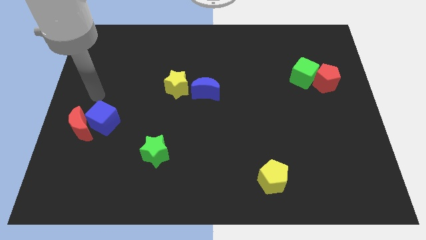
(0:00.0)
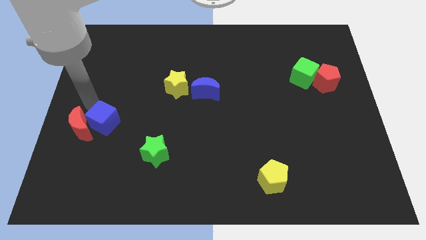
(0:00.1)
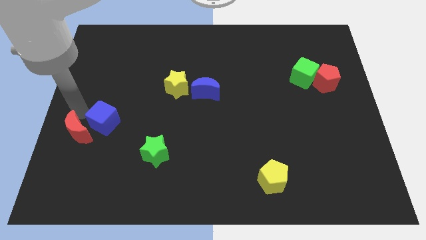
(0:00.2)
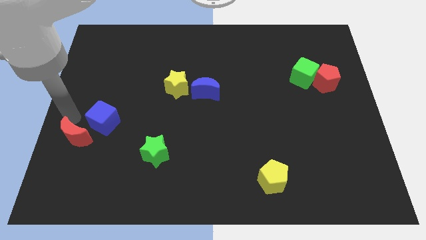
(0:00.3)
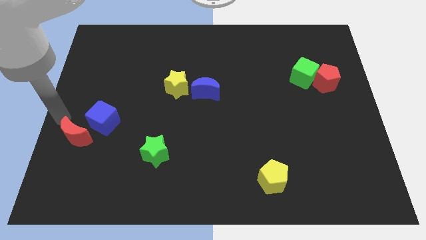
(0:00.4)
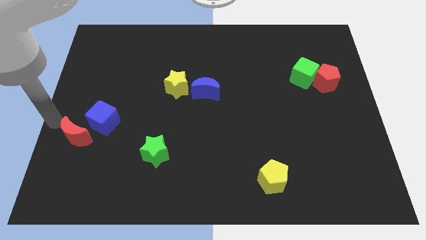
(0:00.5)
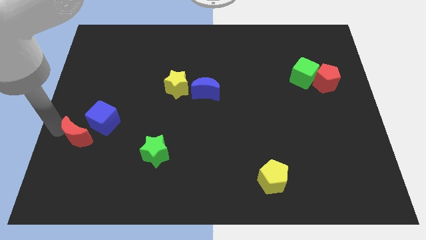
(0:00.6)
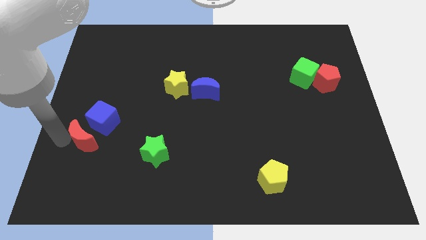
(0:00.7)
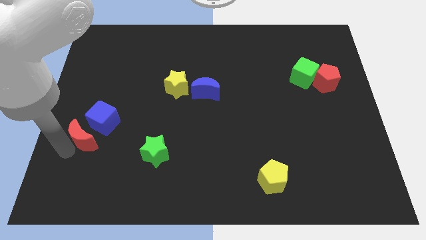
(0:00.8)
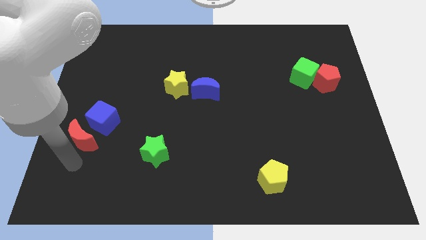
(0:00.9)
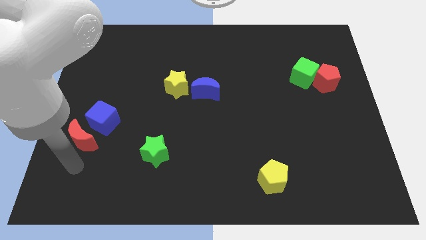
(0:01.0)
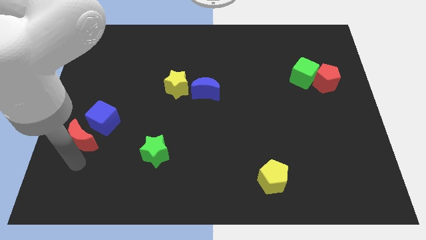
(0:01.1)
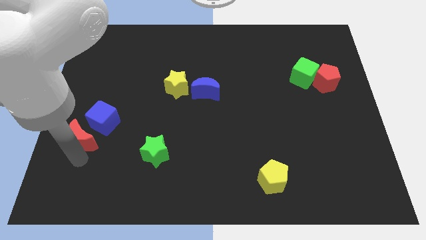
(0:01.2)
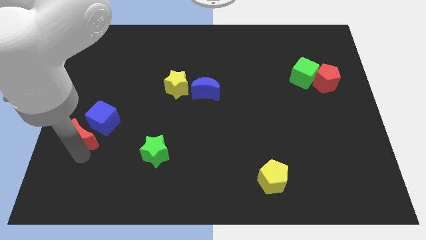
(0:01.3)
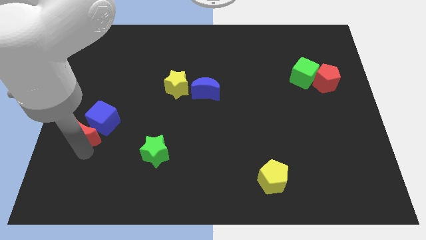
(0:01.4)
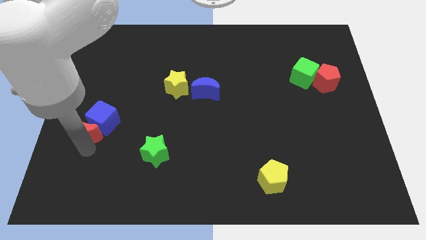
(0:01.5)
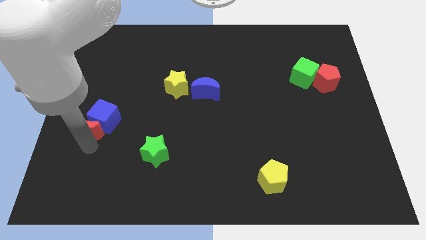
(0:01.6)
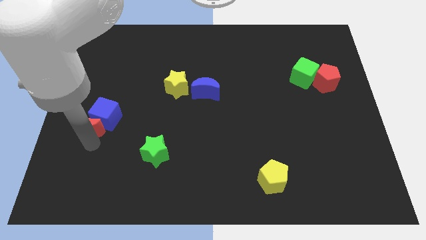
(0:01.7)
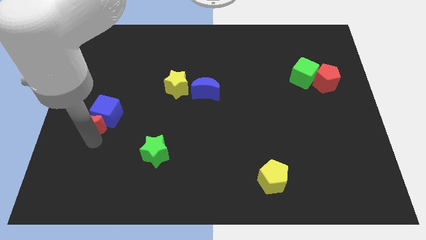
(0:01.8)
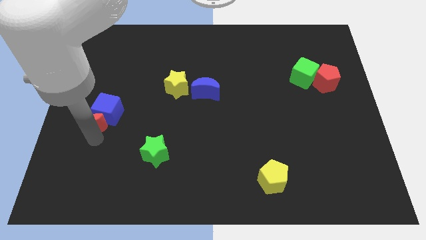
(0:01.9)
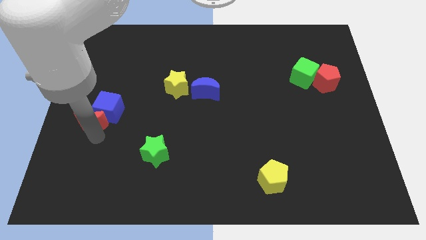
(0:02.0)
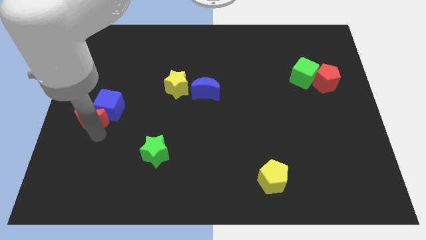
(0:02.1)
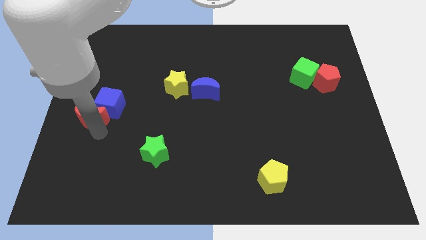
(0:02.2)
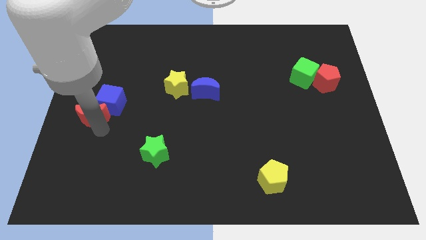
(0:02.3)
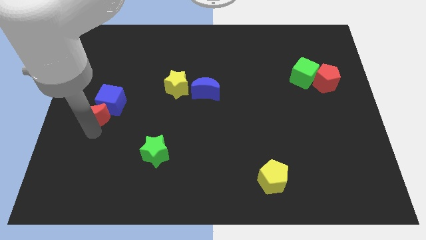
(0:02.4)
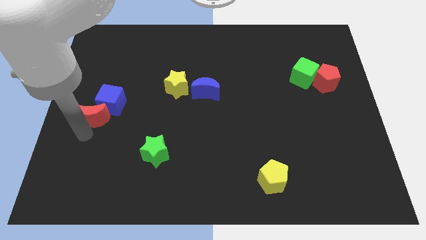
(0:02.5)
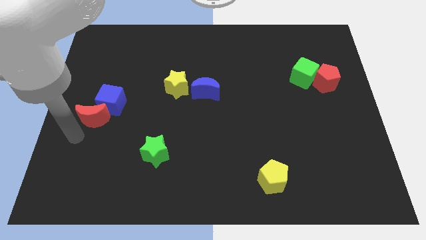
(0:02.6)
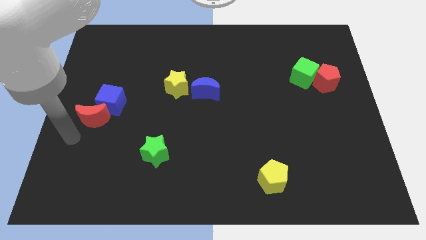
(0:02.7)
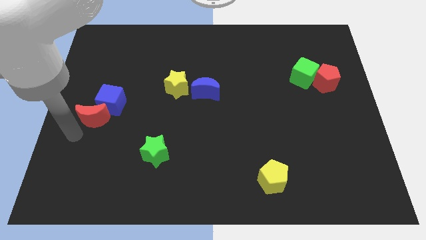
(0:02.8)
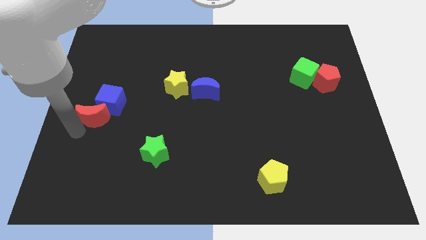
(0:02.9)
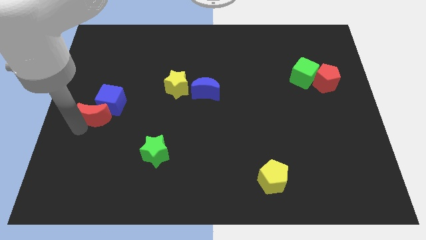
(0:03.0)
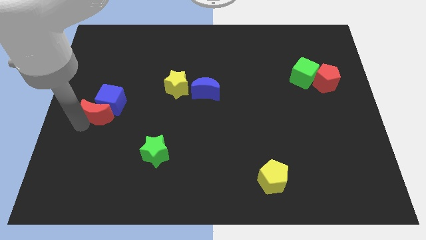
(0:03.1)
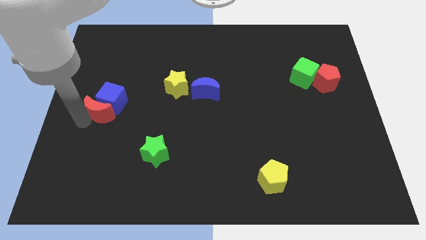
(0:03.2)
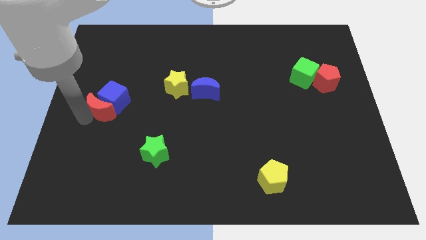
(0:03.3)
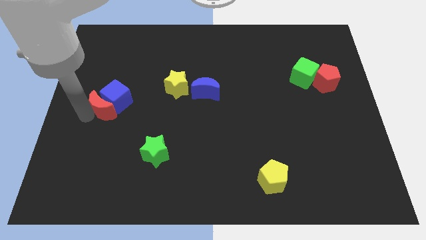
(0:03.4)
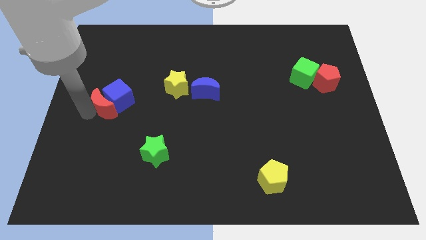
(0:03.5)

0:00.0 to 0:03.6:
slide the red moon a little bit up and then to the right

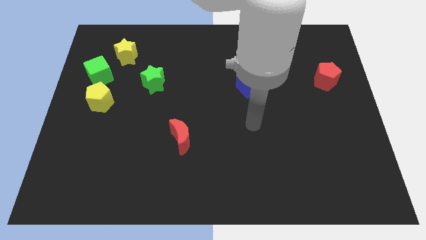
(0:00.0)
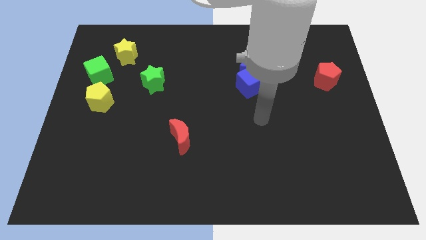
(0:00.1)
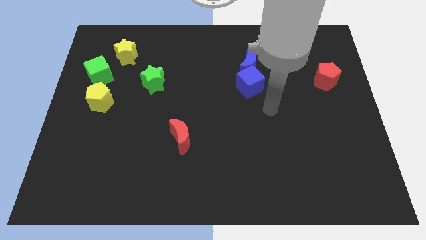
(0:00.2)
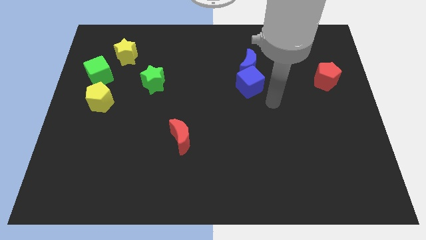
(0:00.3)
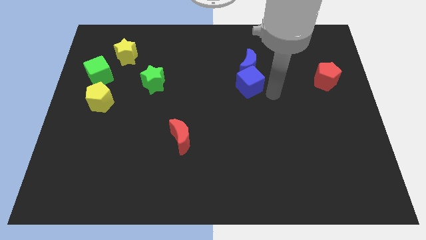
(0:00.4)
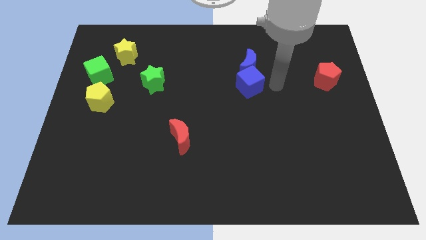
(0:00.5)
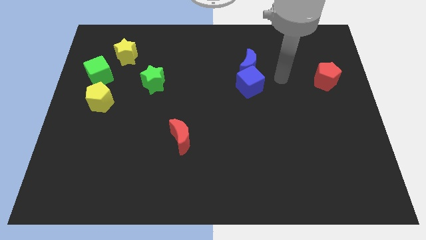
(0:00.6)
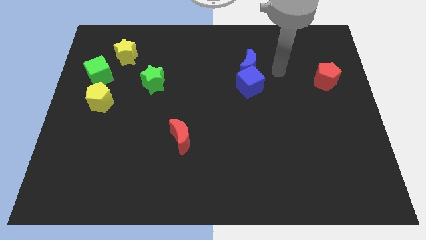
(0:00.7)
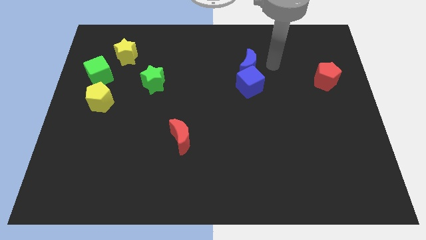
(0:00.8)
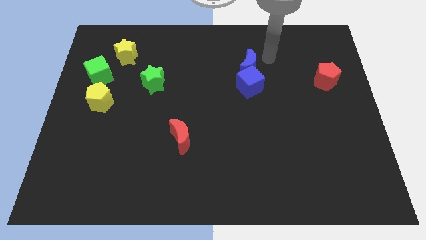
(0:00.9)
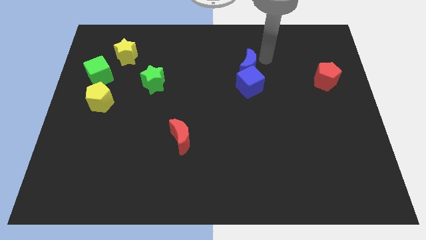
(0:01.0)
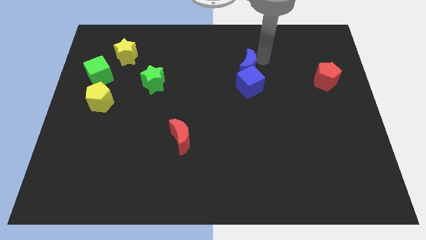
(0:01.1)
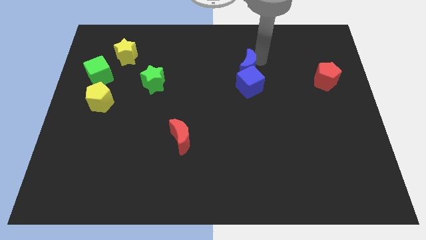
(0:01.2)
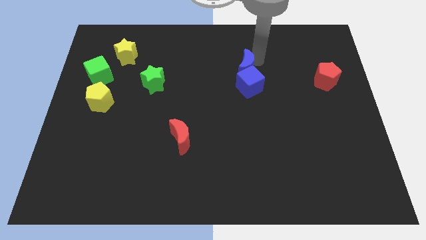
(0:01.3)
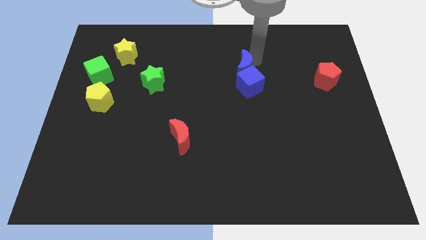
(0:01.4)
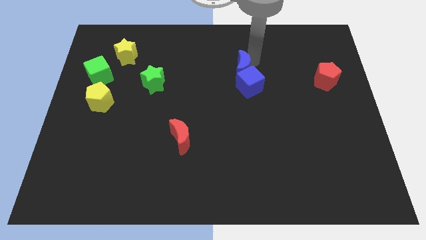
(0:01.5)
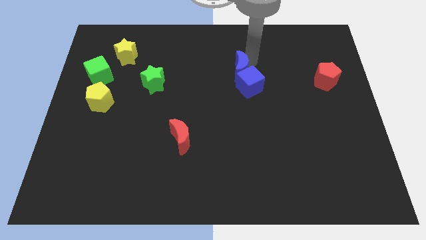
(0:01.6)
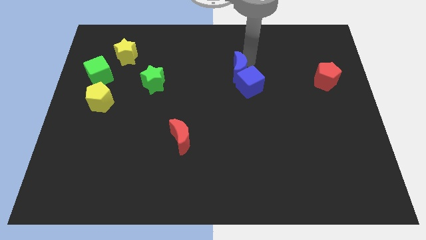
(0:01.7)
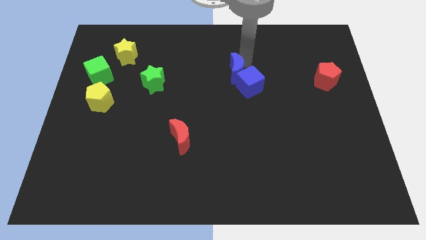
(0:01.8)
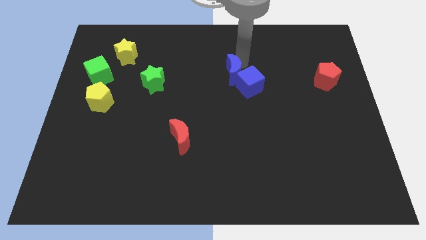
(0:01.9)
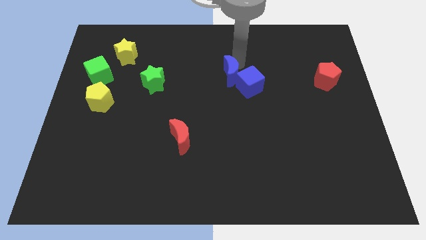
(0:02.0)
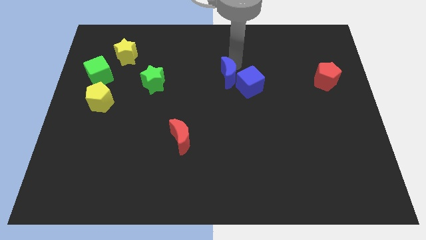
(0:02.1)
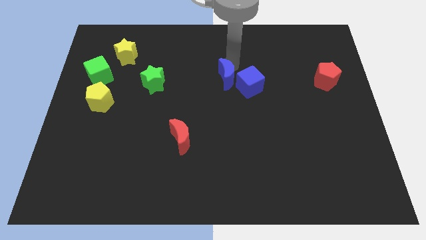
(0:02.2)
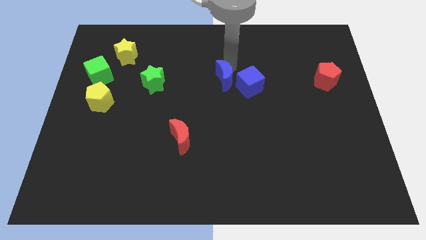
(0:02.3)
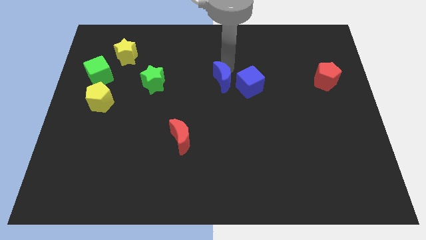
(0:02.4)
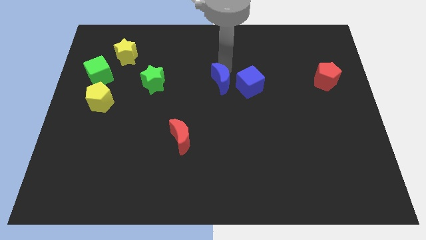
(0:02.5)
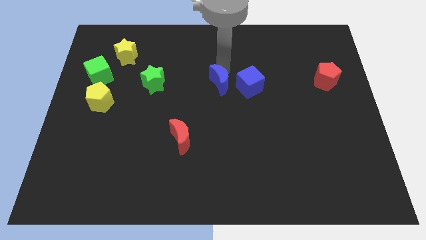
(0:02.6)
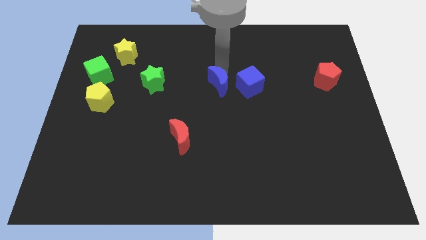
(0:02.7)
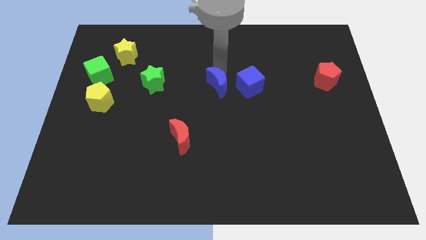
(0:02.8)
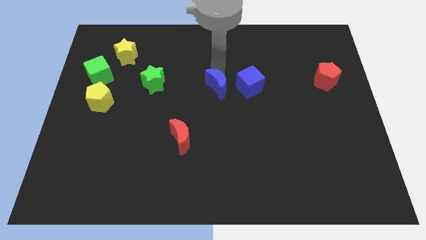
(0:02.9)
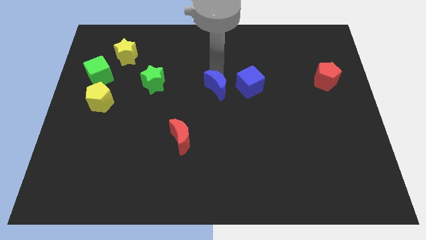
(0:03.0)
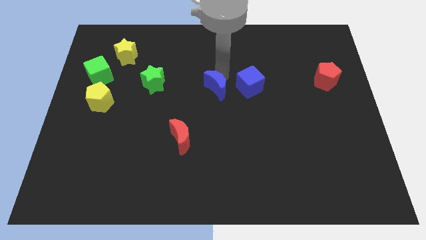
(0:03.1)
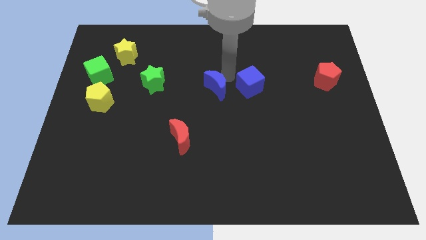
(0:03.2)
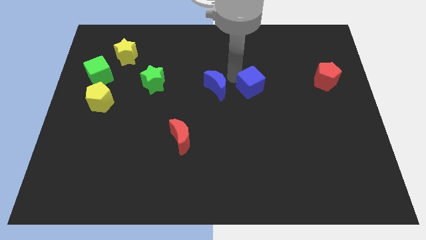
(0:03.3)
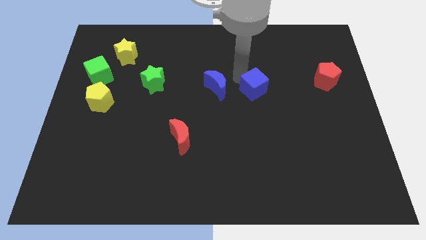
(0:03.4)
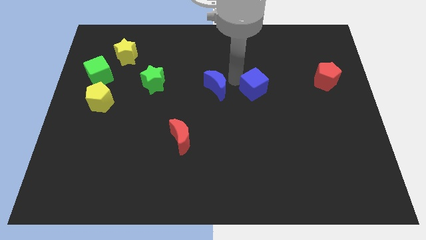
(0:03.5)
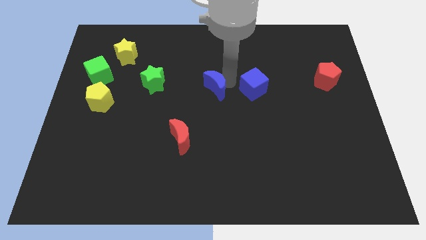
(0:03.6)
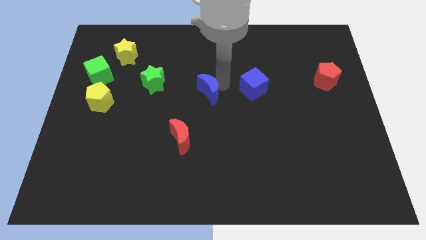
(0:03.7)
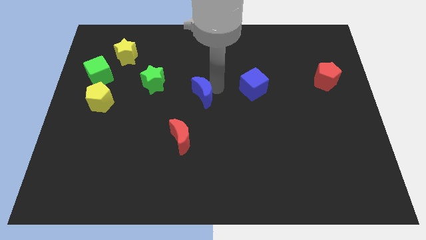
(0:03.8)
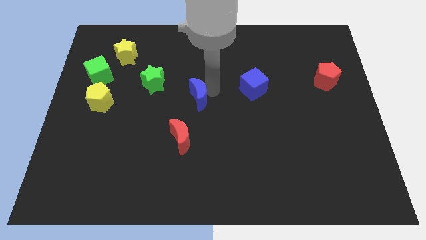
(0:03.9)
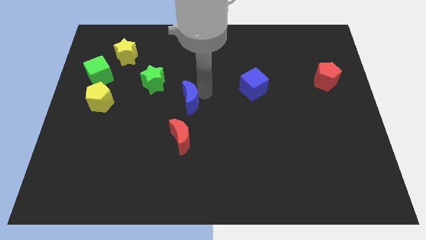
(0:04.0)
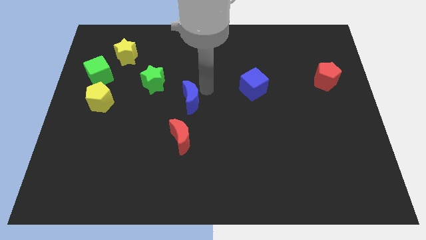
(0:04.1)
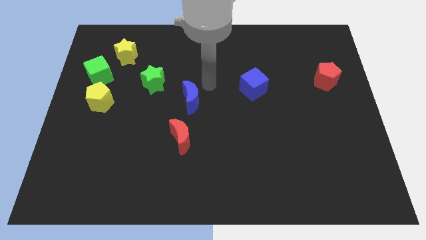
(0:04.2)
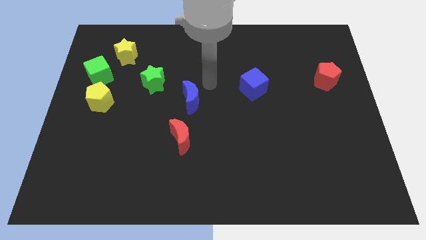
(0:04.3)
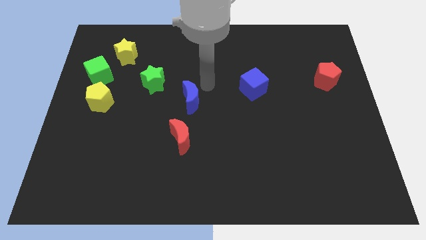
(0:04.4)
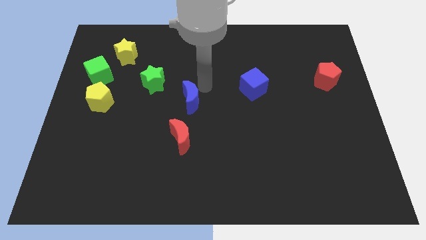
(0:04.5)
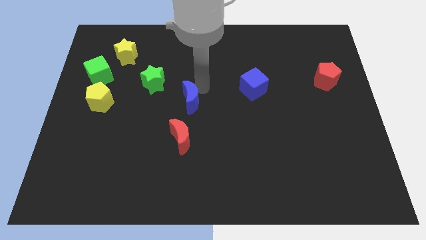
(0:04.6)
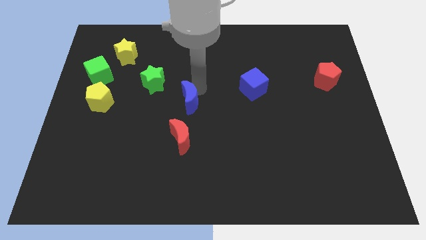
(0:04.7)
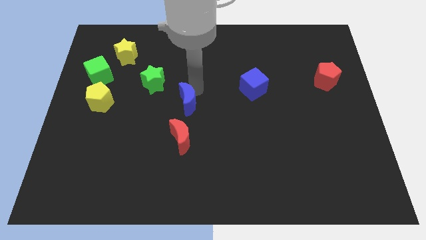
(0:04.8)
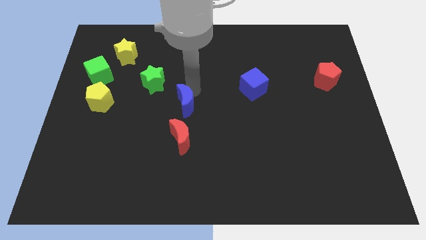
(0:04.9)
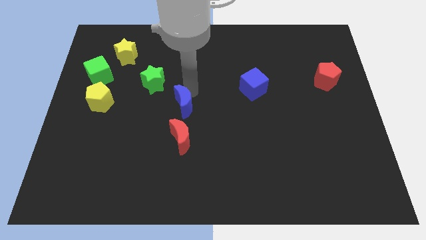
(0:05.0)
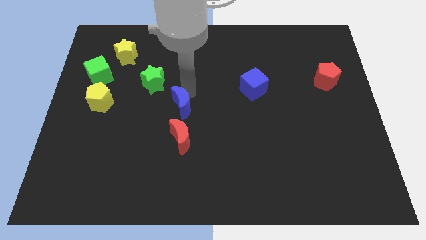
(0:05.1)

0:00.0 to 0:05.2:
slide the blue moon down and then to the left
